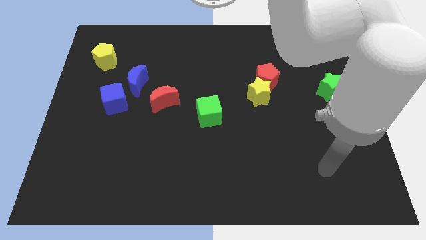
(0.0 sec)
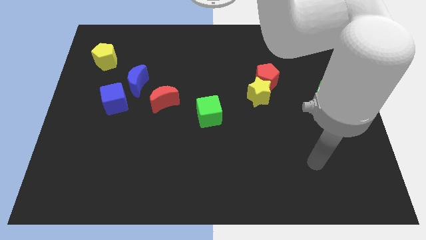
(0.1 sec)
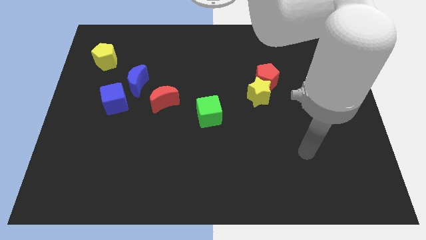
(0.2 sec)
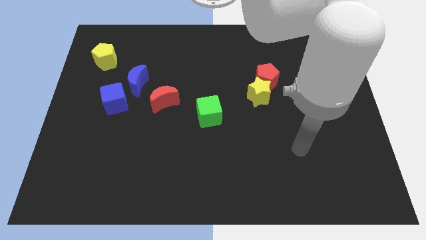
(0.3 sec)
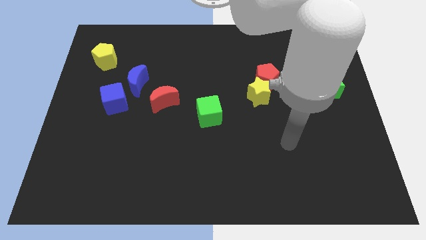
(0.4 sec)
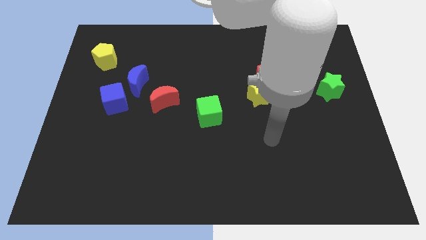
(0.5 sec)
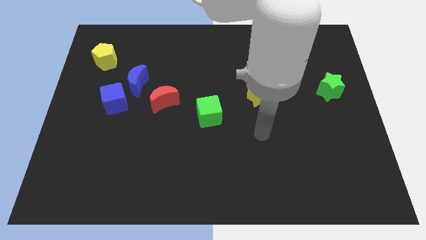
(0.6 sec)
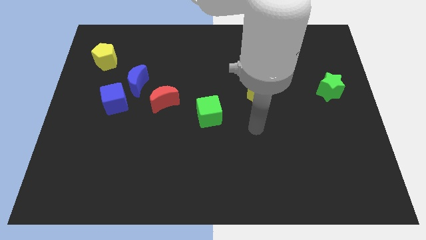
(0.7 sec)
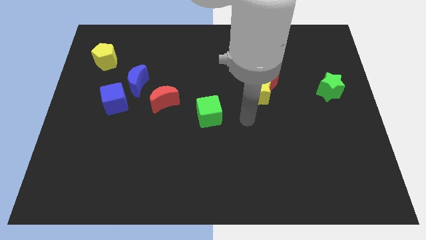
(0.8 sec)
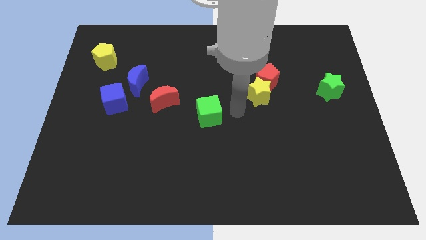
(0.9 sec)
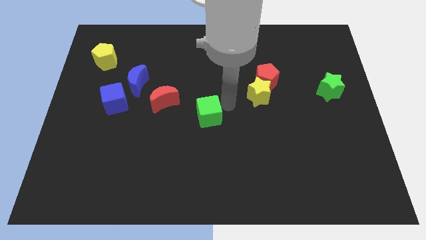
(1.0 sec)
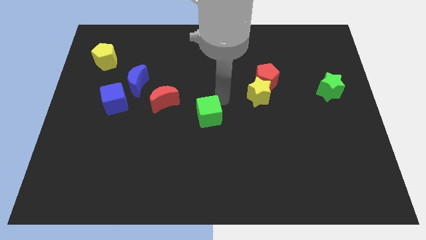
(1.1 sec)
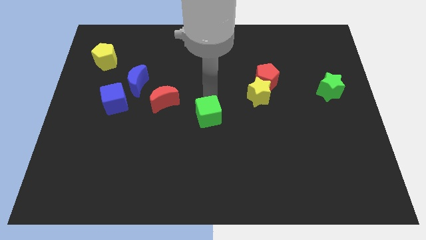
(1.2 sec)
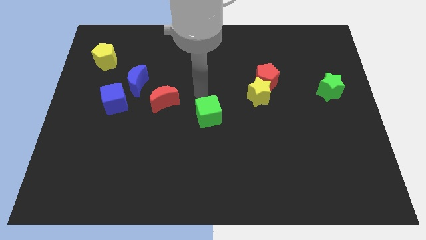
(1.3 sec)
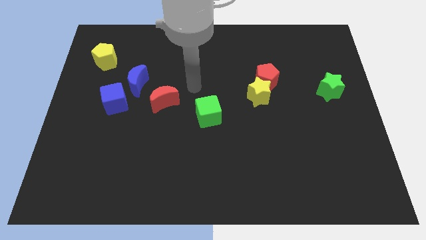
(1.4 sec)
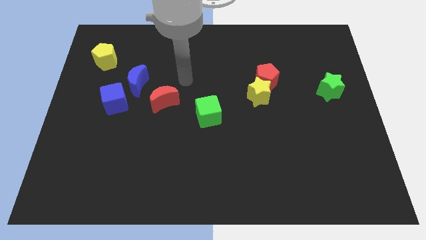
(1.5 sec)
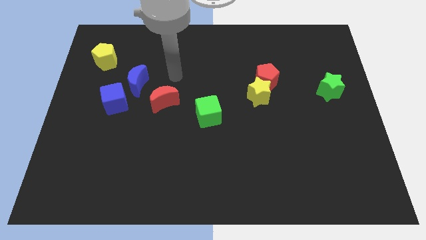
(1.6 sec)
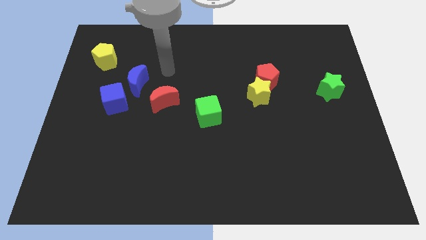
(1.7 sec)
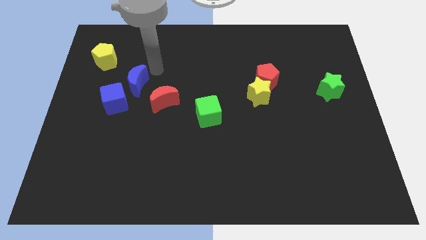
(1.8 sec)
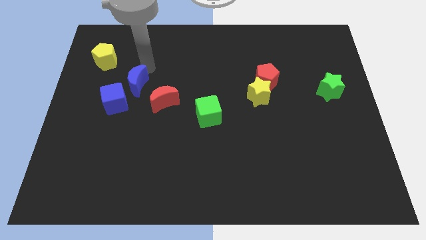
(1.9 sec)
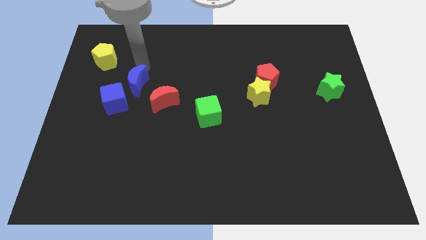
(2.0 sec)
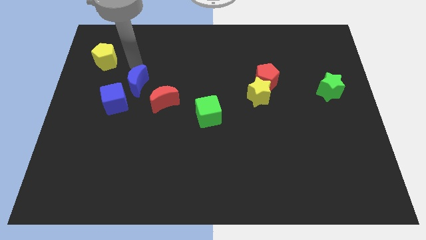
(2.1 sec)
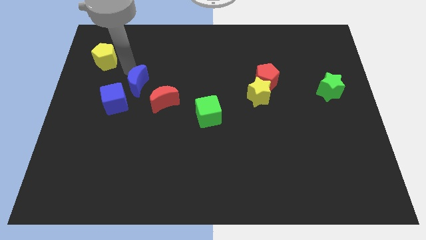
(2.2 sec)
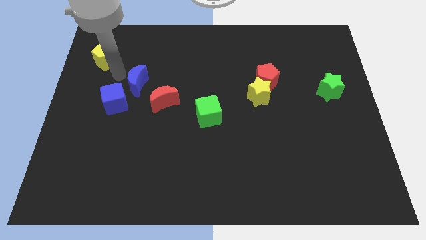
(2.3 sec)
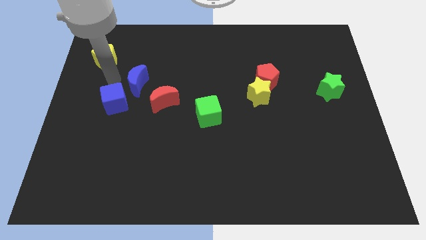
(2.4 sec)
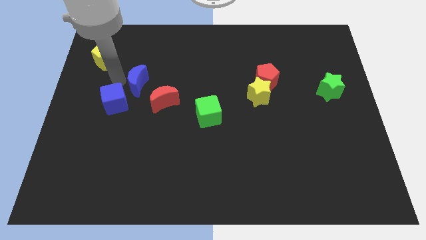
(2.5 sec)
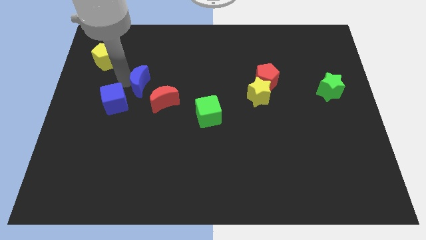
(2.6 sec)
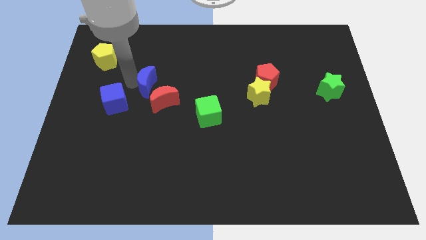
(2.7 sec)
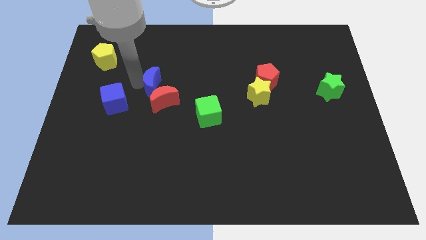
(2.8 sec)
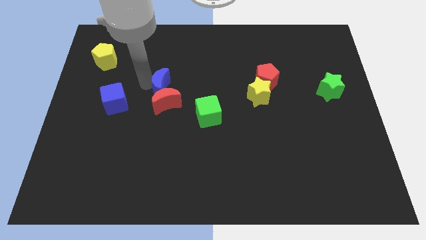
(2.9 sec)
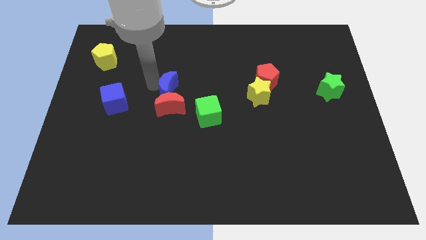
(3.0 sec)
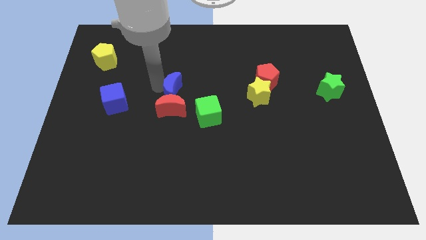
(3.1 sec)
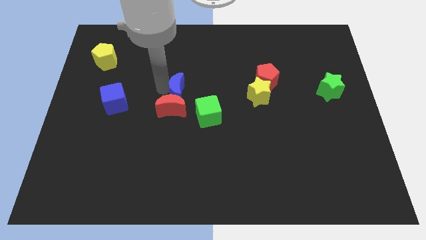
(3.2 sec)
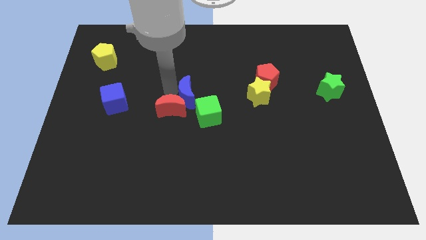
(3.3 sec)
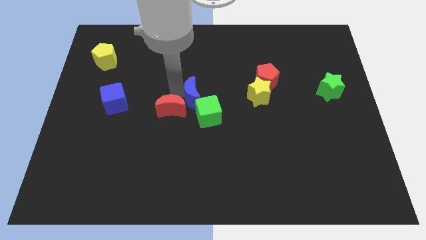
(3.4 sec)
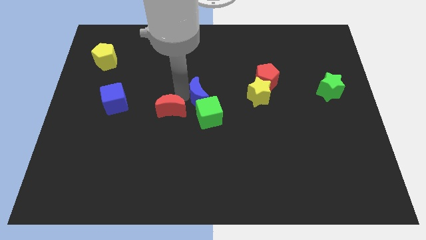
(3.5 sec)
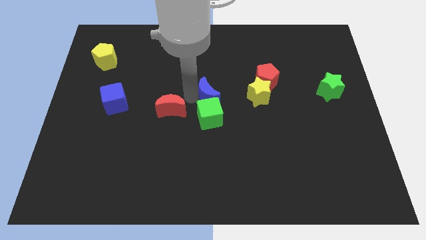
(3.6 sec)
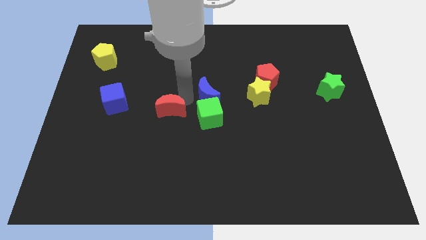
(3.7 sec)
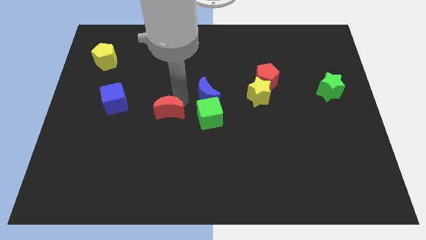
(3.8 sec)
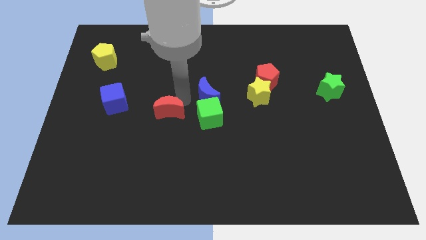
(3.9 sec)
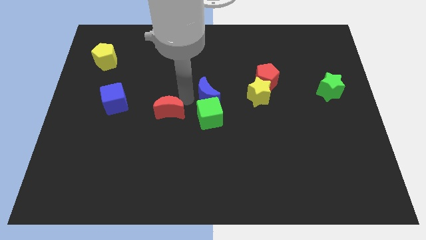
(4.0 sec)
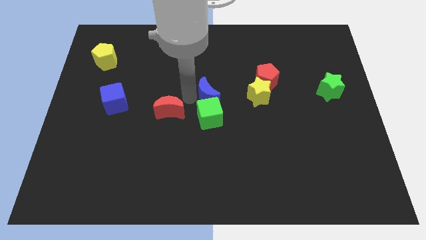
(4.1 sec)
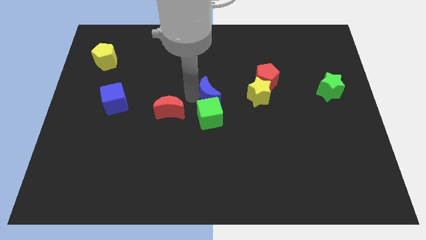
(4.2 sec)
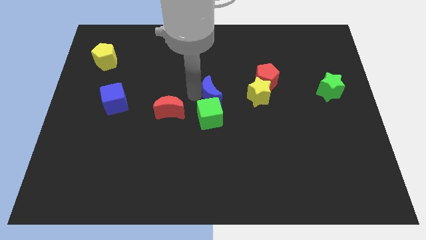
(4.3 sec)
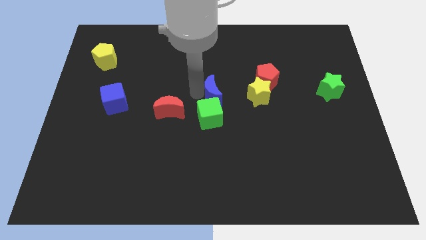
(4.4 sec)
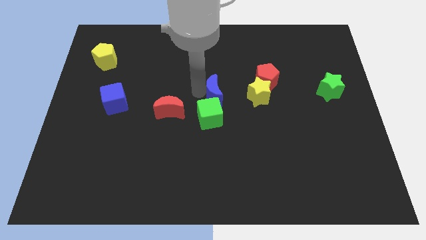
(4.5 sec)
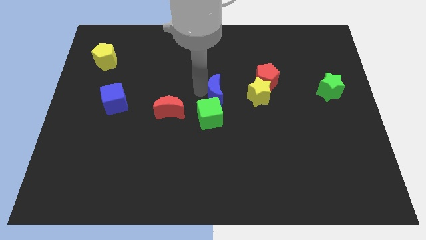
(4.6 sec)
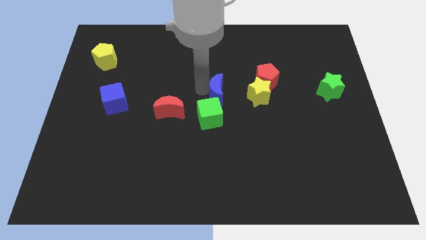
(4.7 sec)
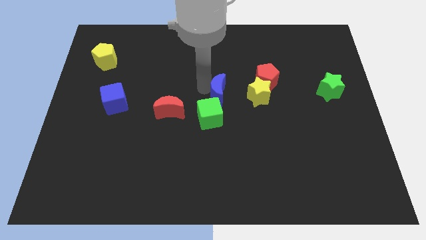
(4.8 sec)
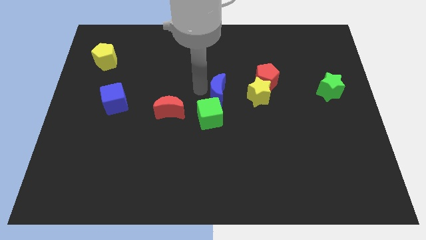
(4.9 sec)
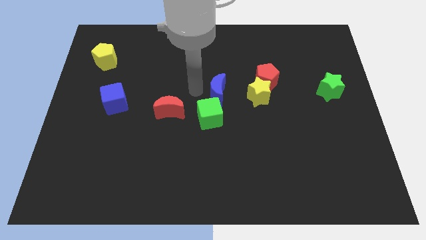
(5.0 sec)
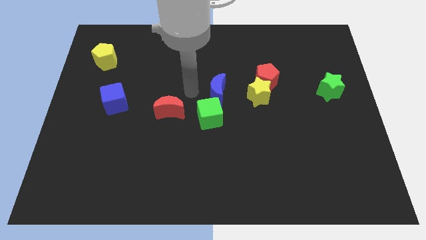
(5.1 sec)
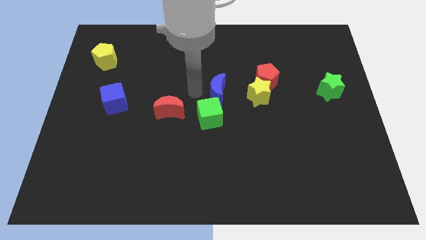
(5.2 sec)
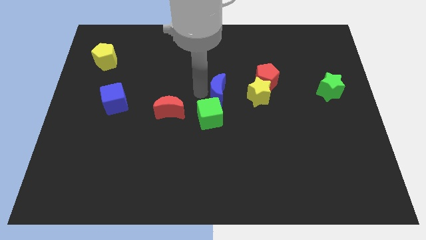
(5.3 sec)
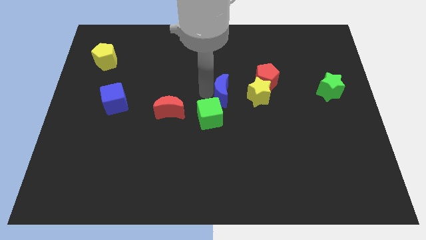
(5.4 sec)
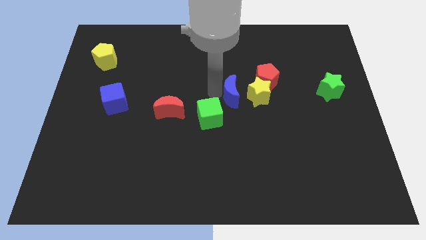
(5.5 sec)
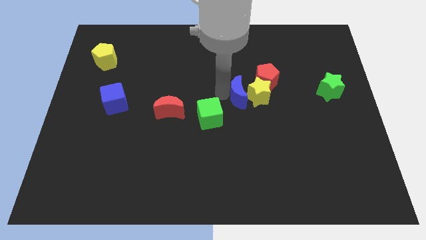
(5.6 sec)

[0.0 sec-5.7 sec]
slide the blue moon next to the yellow star

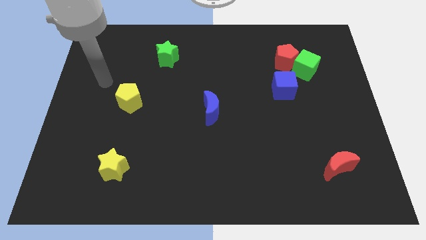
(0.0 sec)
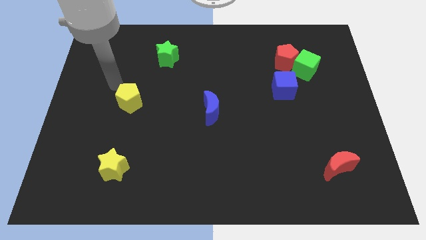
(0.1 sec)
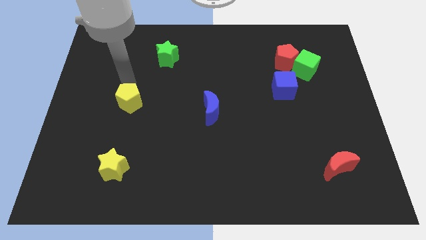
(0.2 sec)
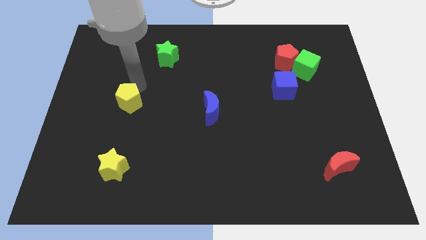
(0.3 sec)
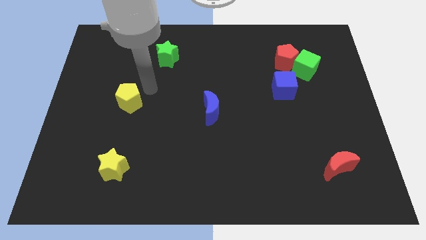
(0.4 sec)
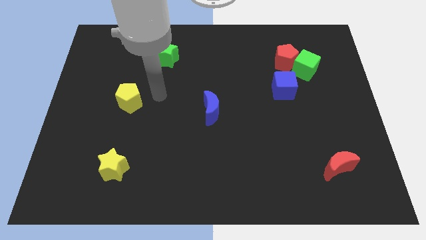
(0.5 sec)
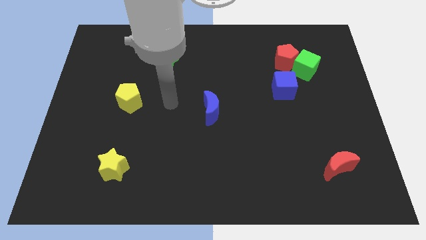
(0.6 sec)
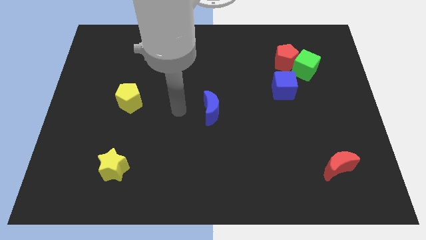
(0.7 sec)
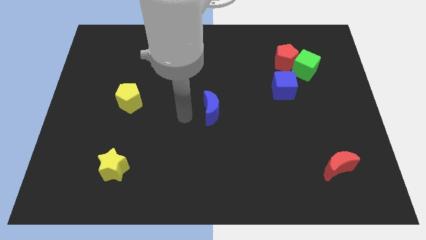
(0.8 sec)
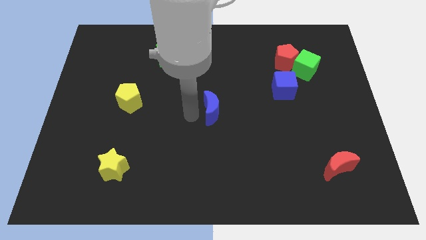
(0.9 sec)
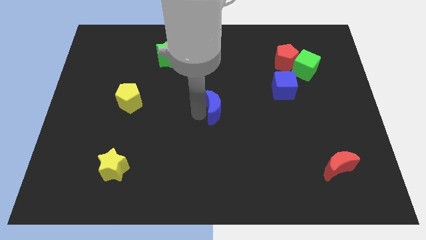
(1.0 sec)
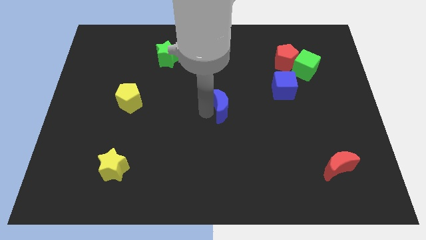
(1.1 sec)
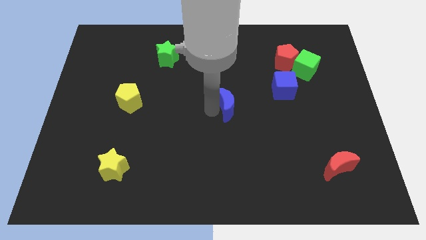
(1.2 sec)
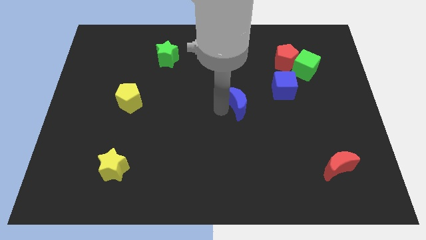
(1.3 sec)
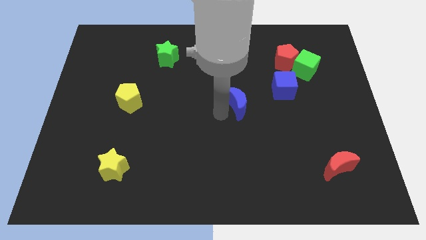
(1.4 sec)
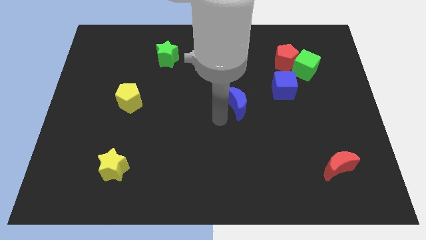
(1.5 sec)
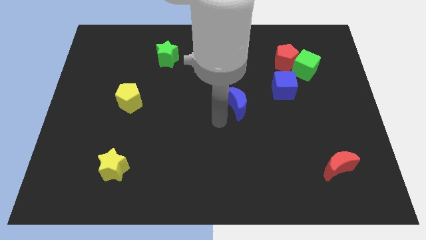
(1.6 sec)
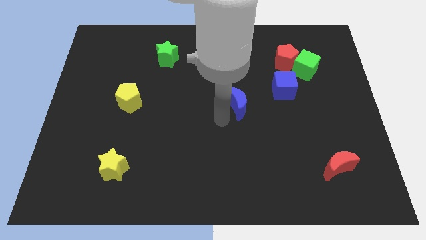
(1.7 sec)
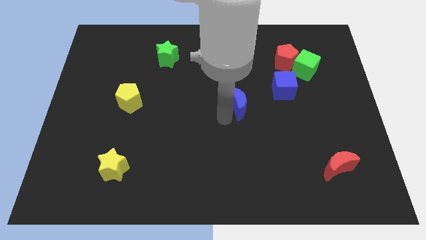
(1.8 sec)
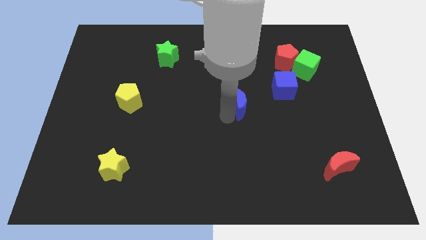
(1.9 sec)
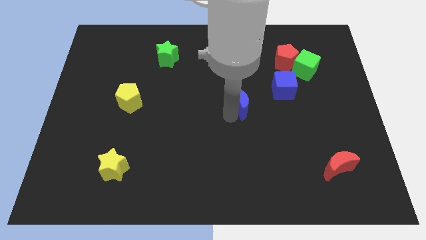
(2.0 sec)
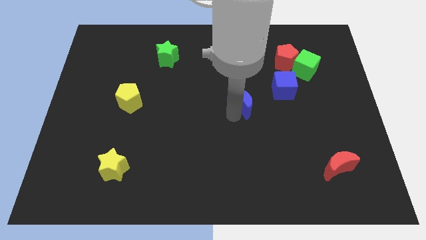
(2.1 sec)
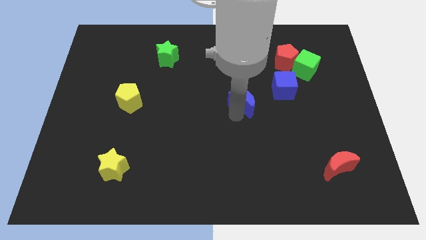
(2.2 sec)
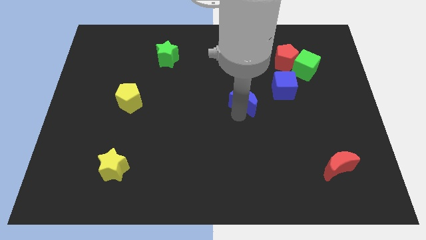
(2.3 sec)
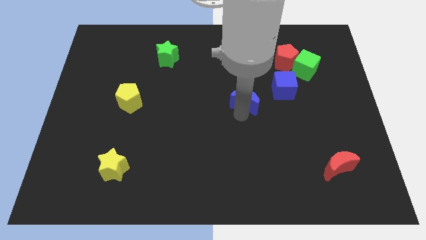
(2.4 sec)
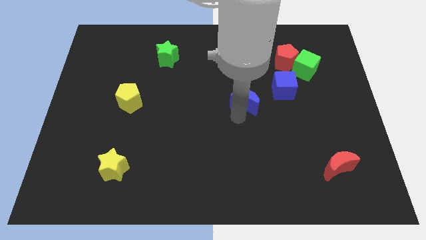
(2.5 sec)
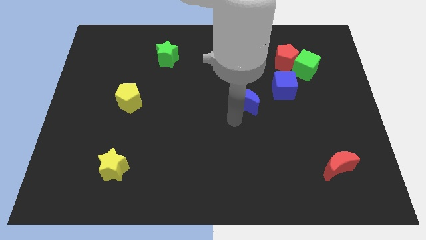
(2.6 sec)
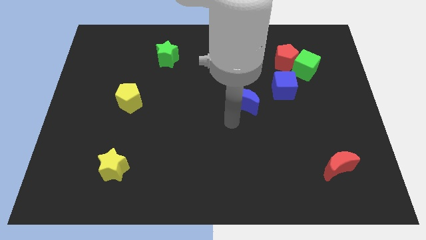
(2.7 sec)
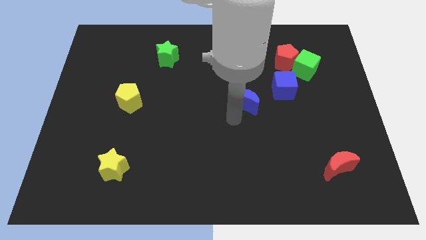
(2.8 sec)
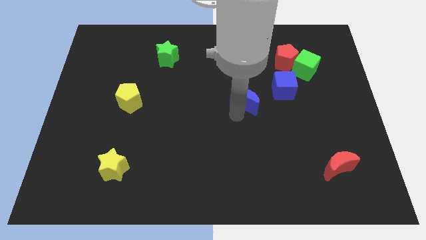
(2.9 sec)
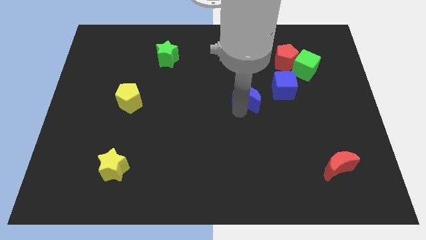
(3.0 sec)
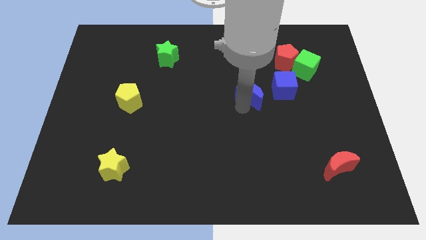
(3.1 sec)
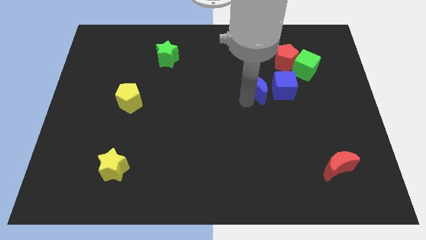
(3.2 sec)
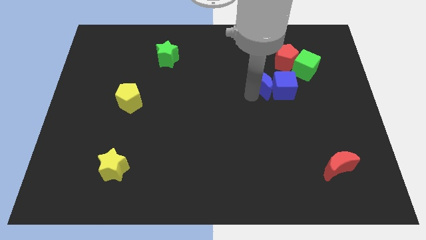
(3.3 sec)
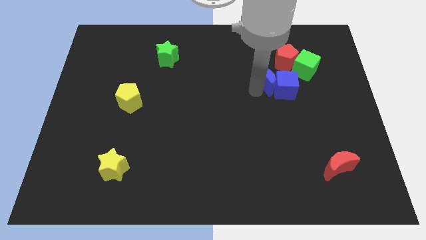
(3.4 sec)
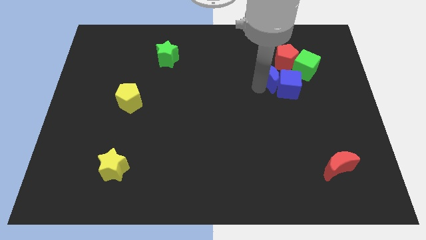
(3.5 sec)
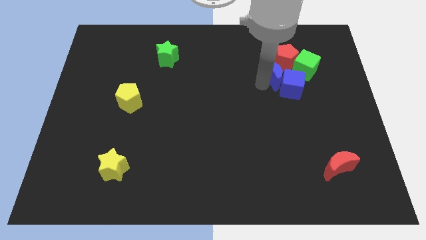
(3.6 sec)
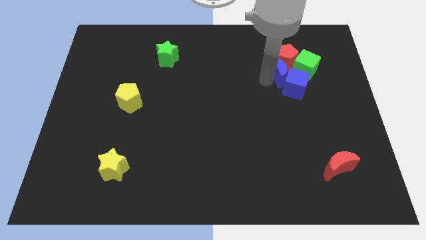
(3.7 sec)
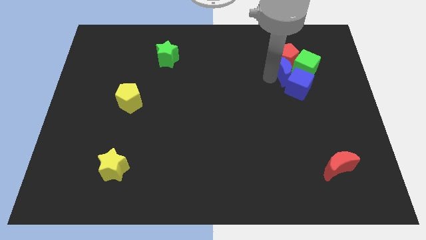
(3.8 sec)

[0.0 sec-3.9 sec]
move the blue moon towards the green cube
